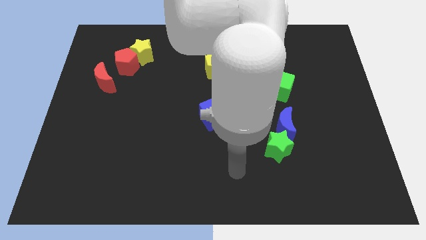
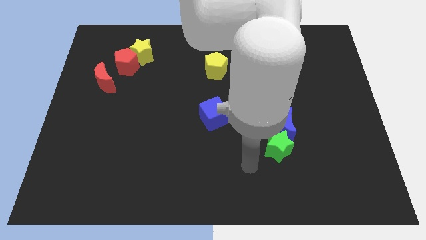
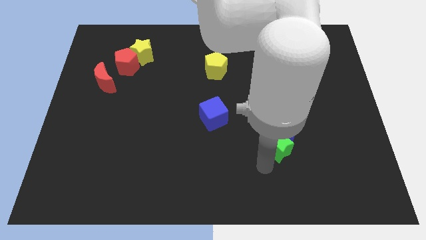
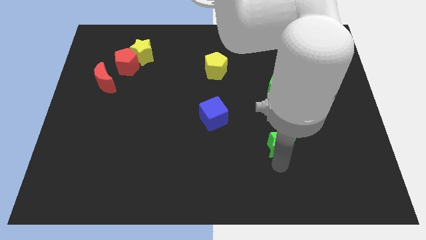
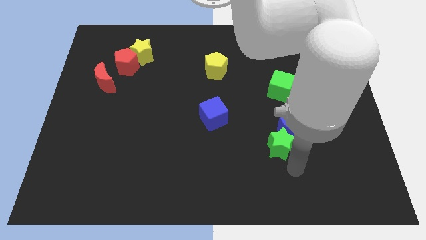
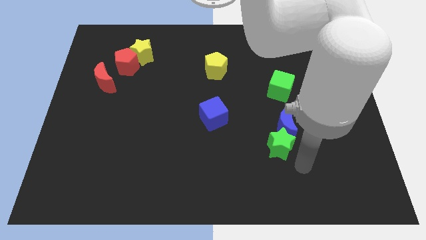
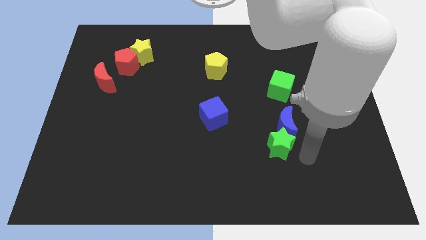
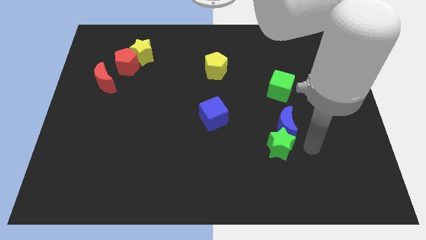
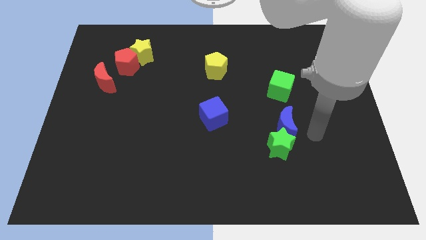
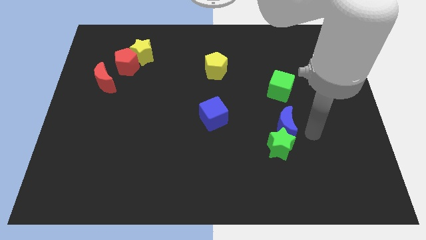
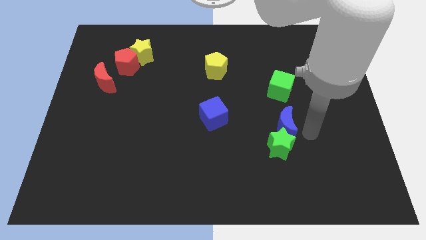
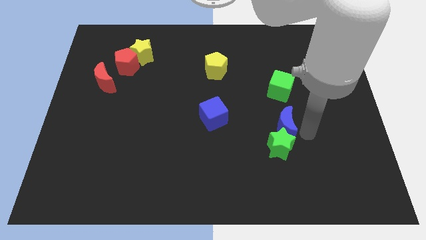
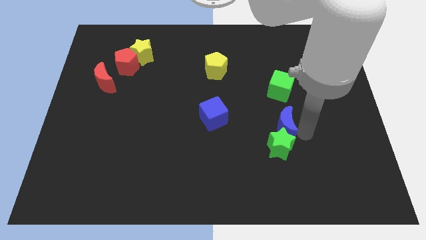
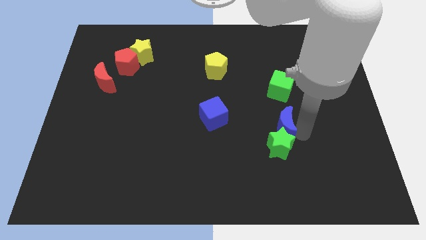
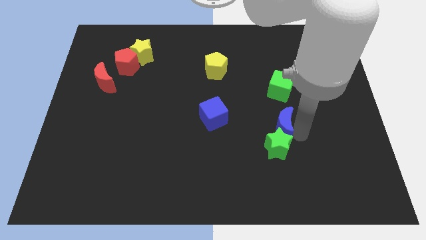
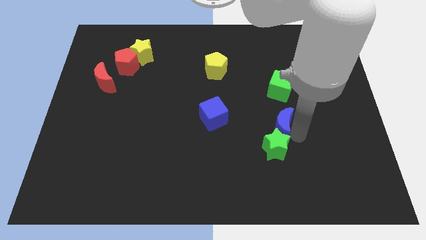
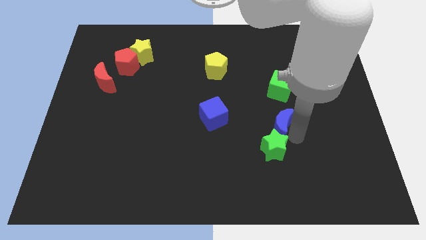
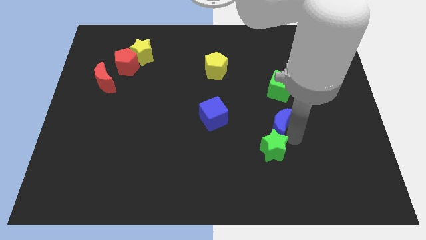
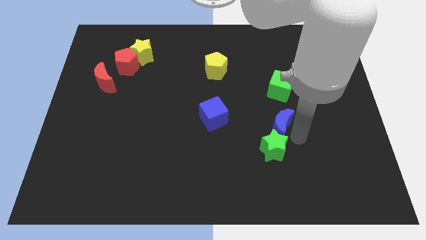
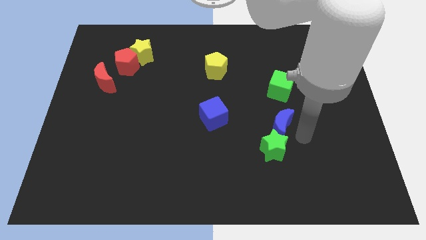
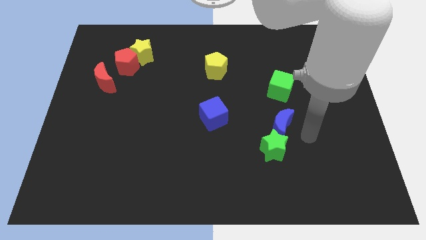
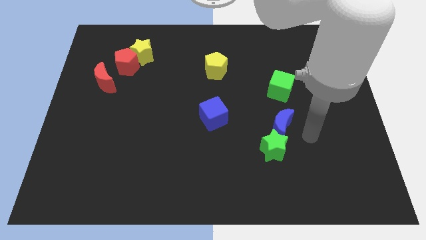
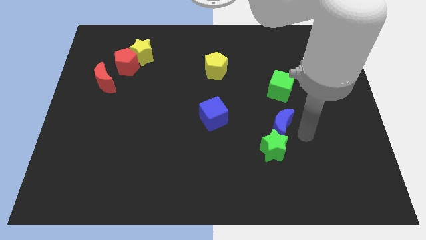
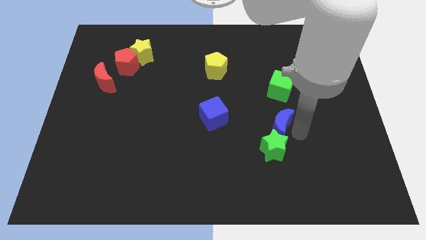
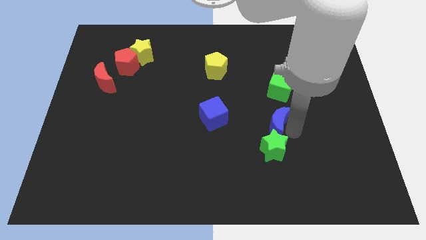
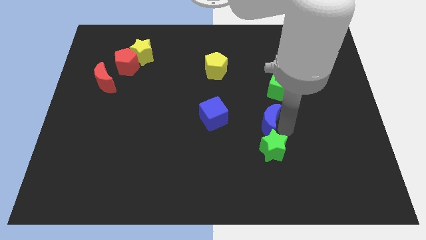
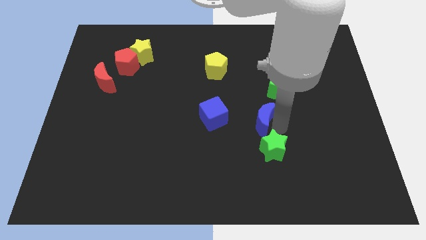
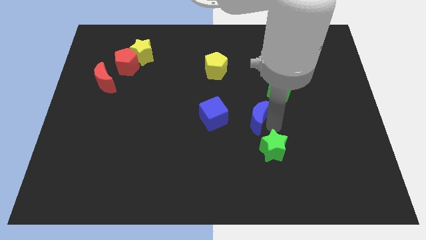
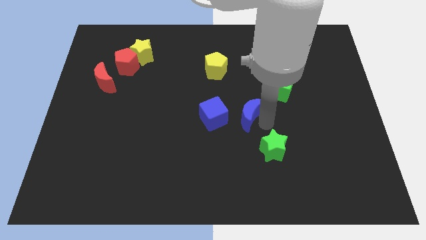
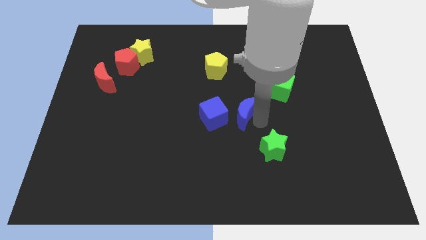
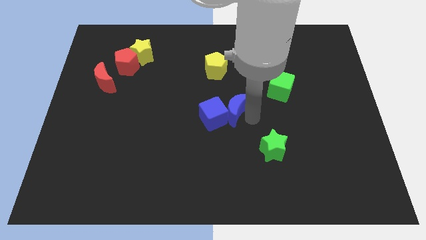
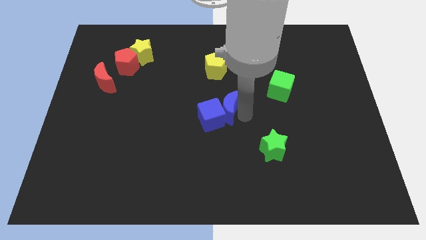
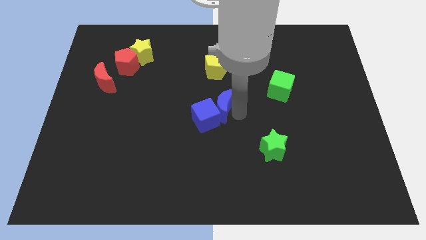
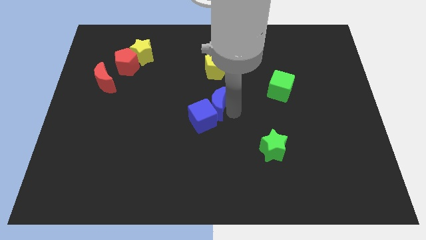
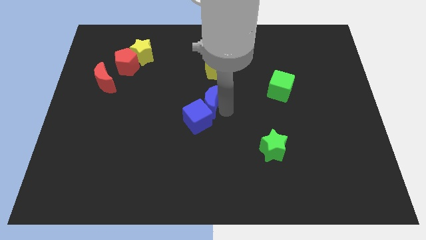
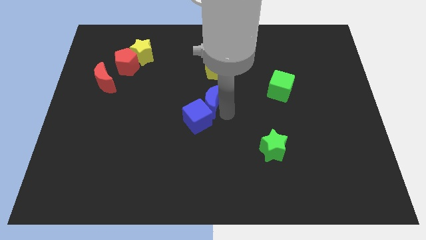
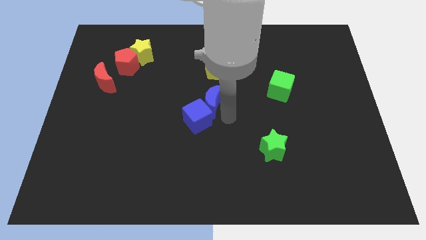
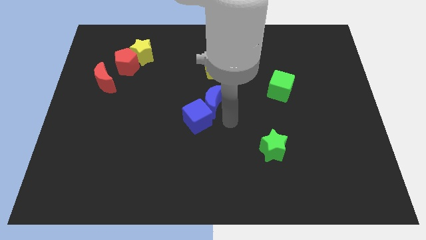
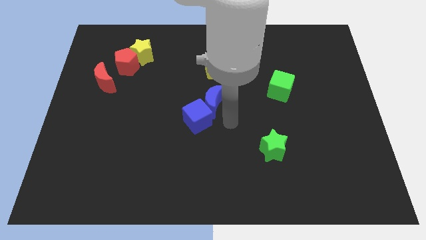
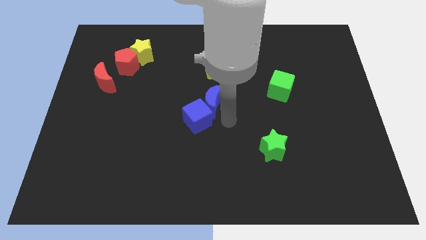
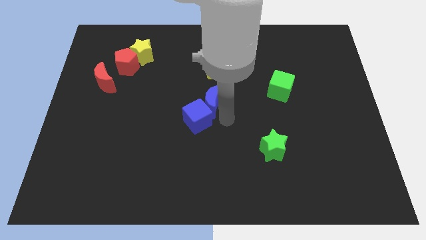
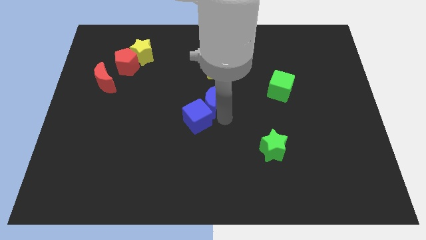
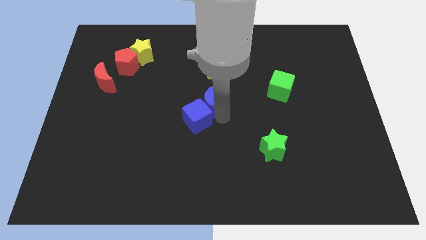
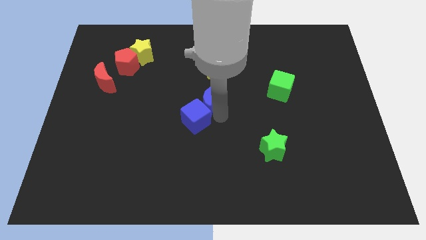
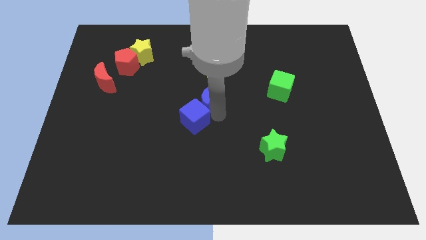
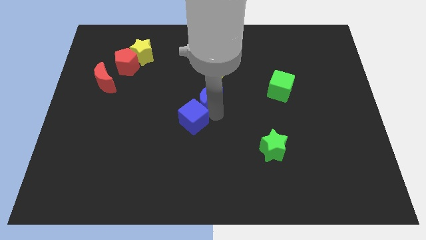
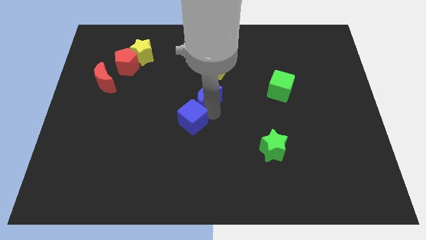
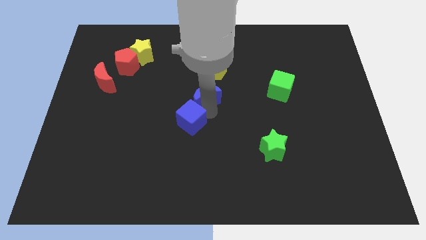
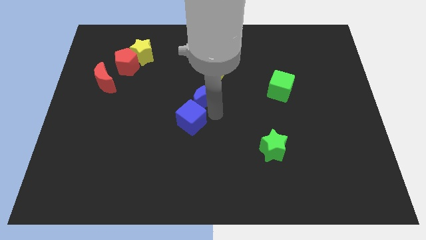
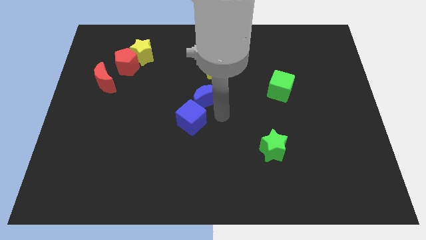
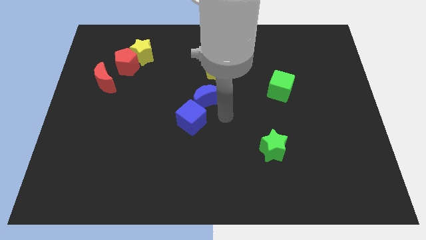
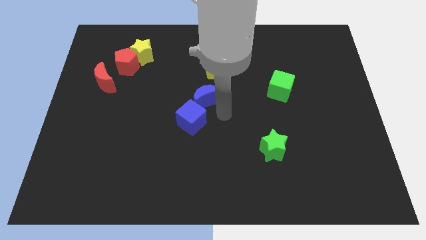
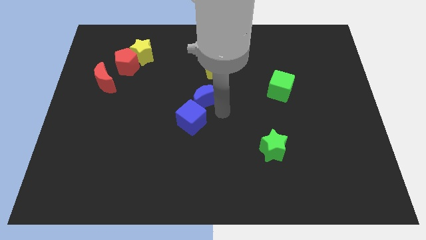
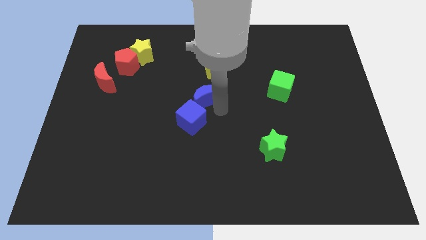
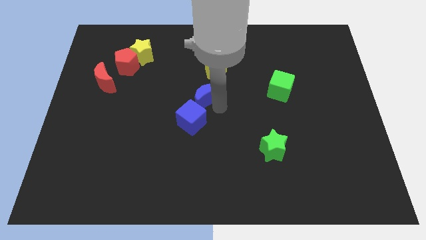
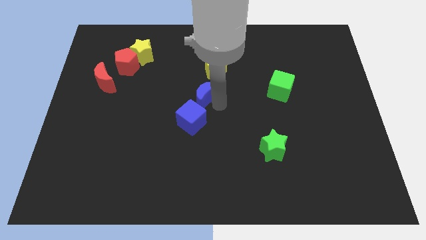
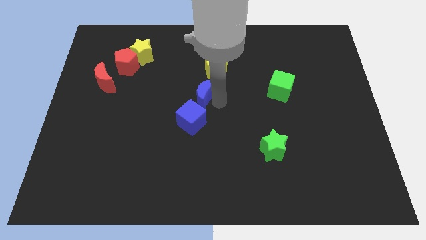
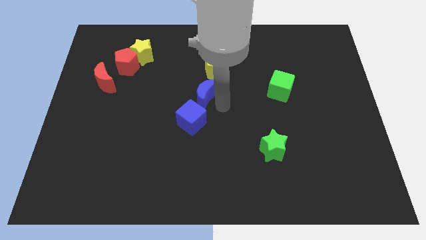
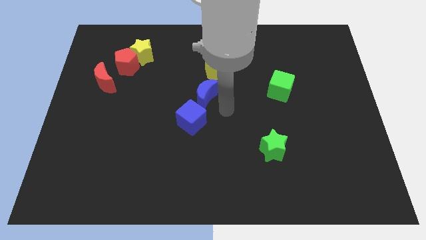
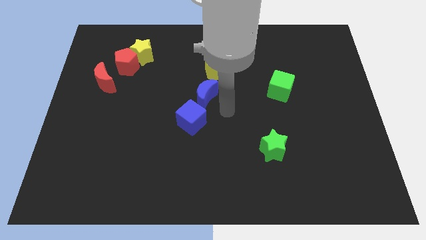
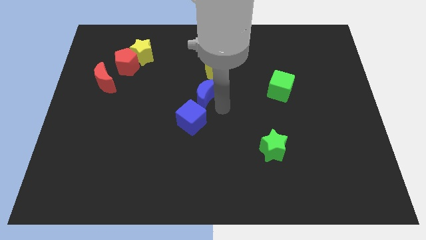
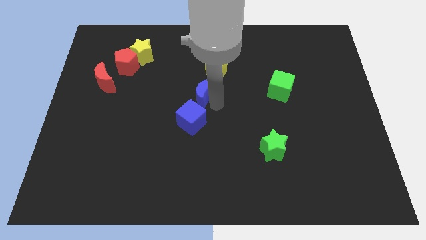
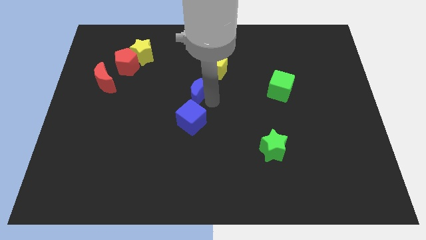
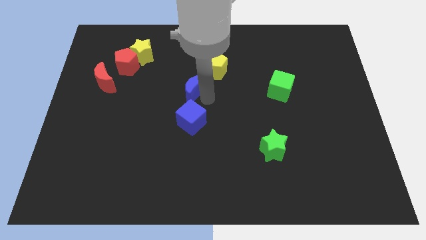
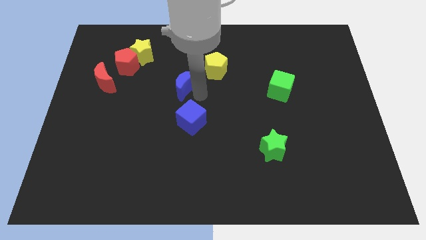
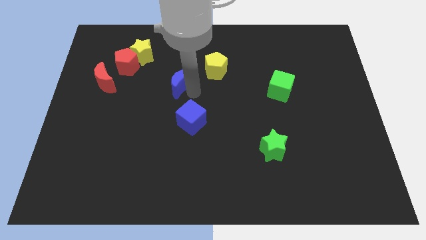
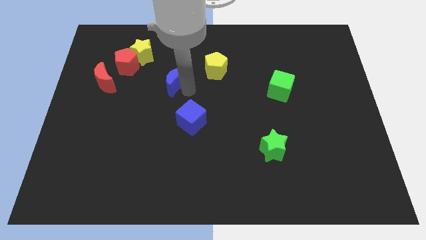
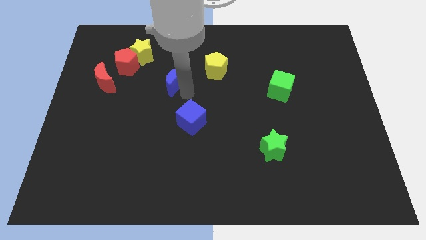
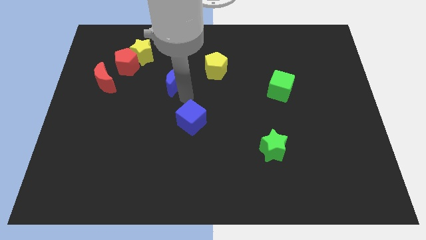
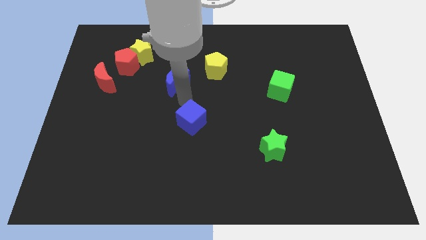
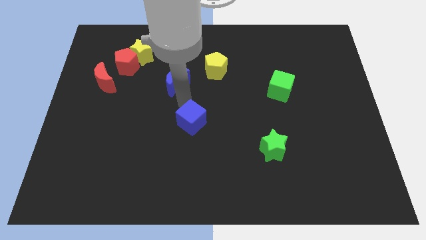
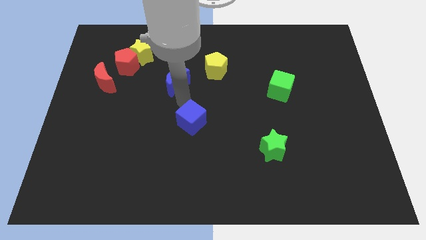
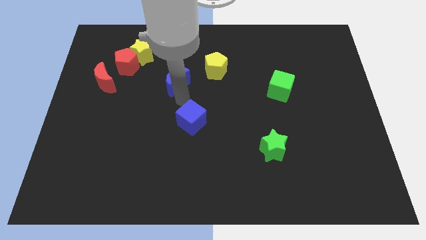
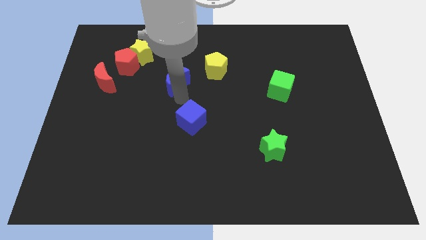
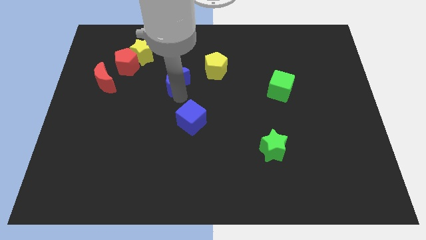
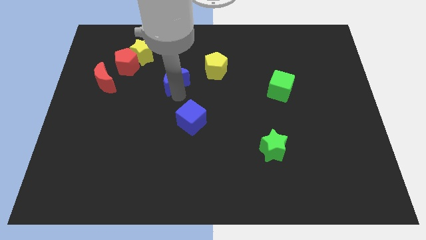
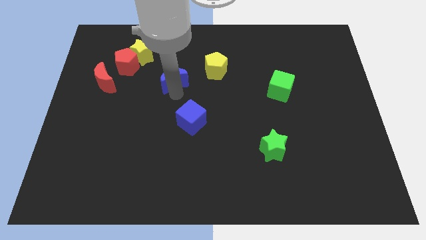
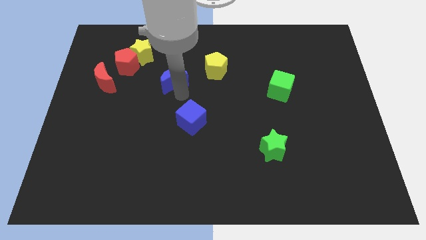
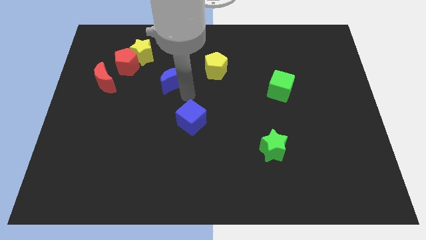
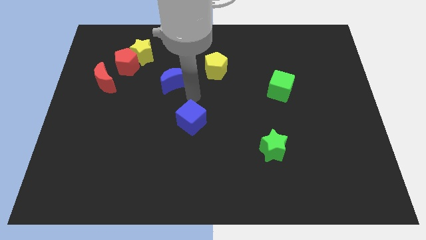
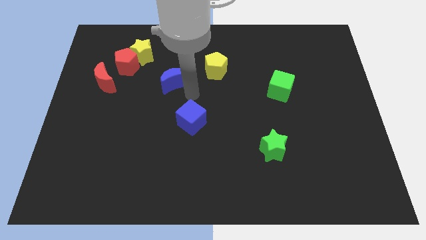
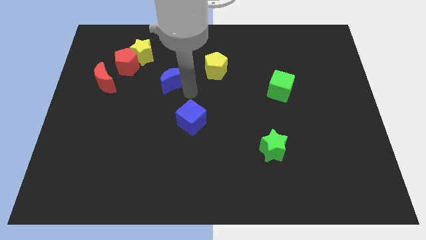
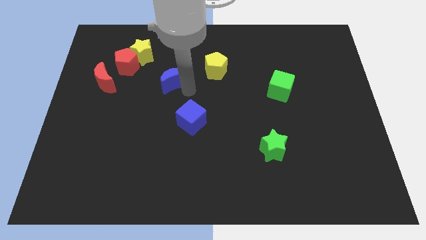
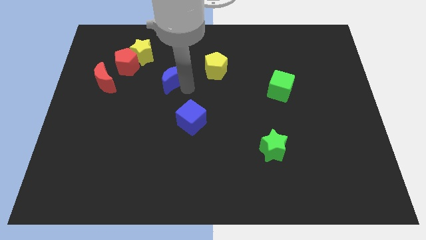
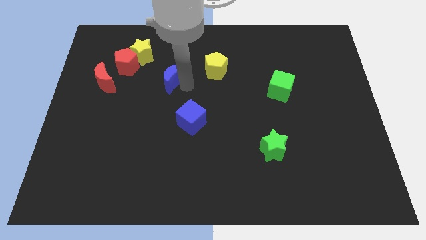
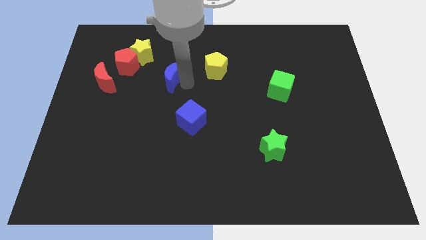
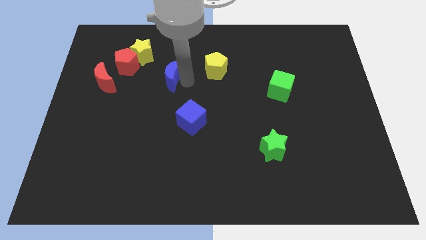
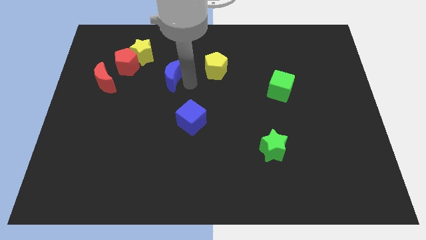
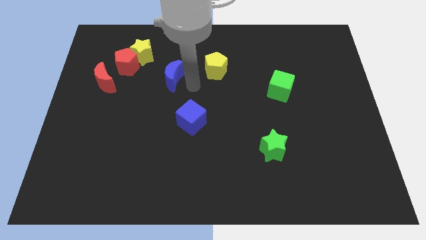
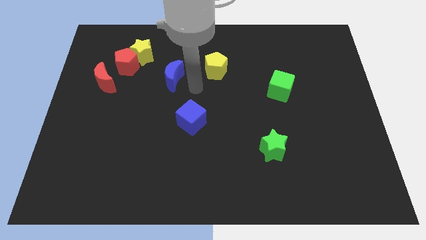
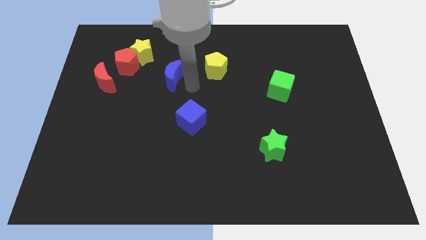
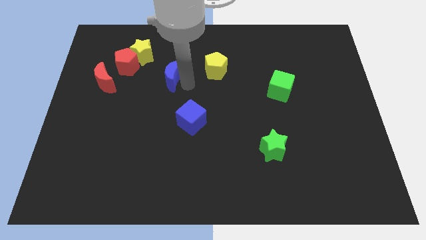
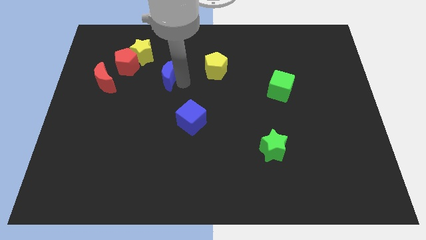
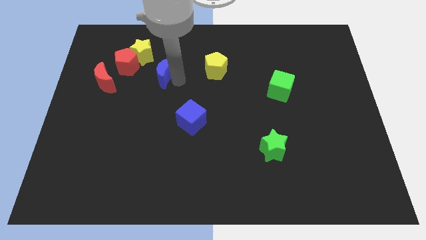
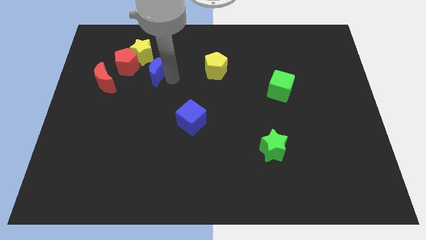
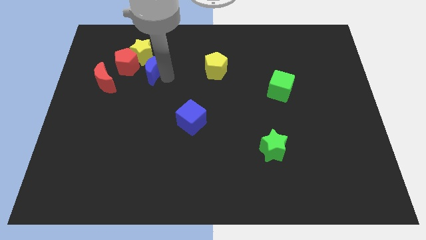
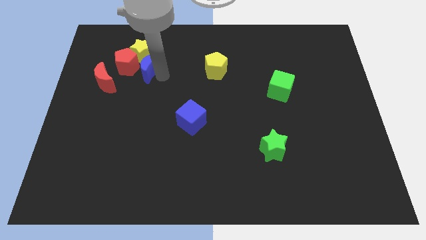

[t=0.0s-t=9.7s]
slide the blue moon next to the yellow star
